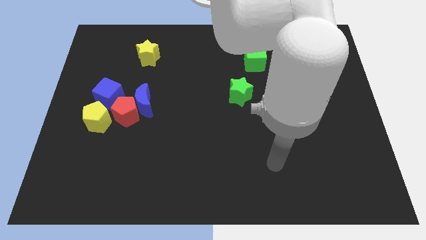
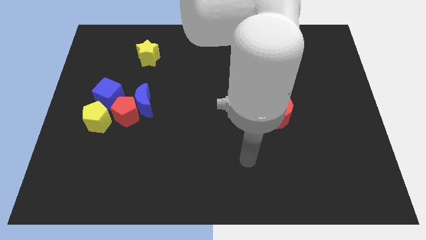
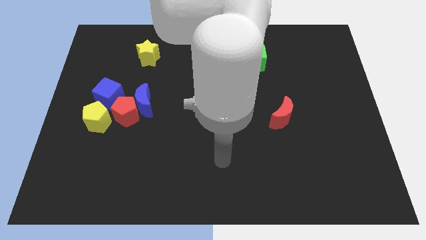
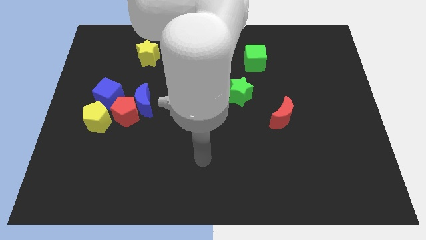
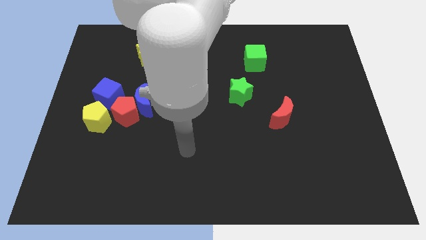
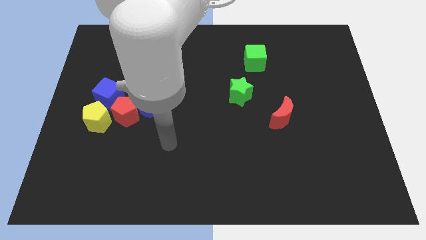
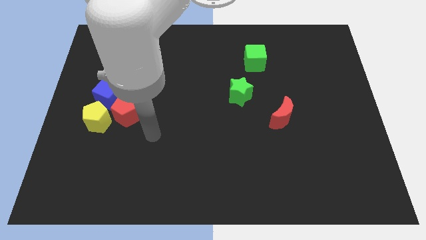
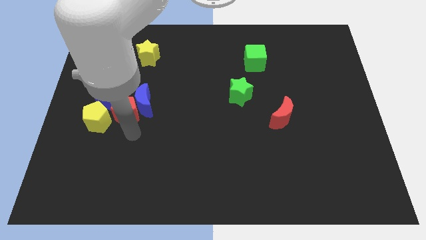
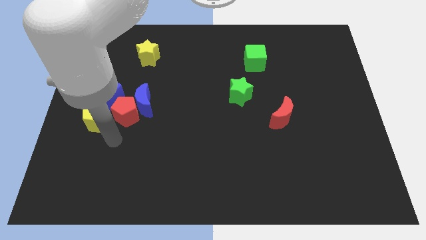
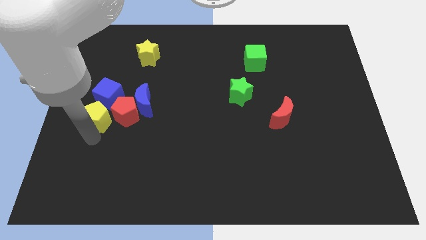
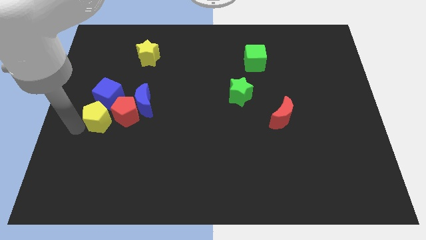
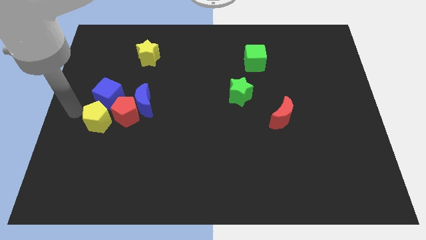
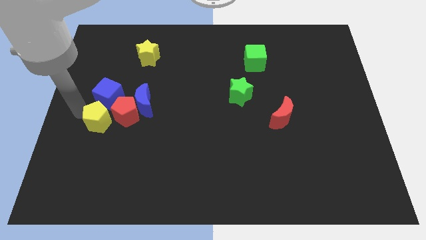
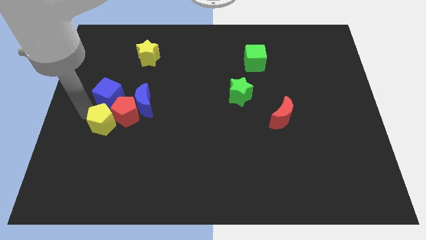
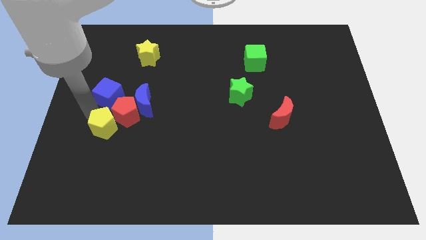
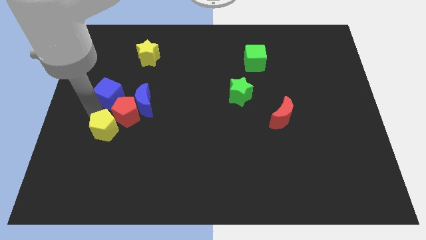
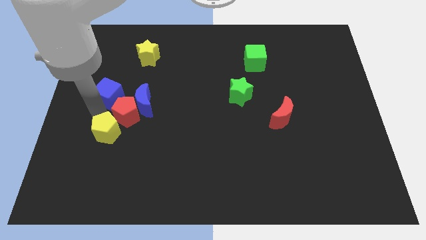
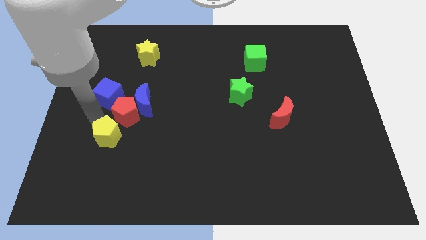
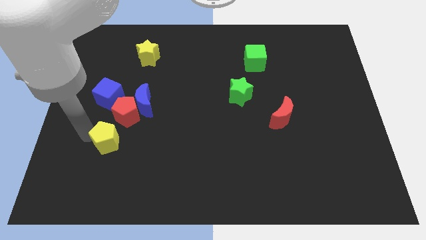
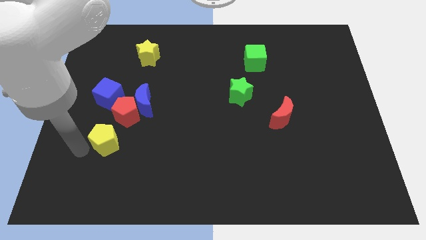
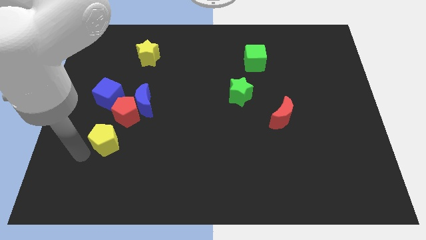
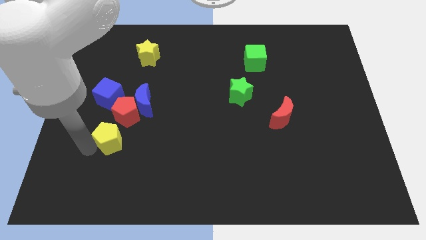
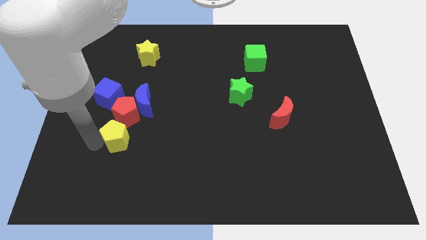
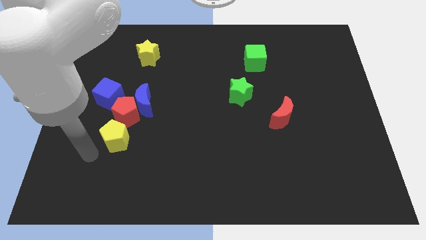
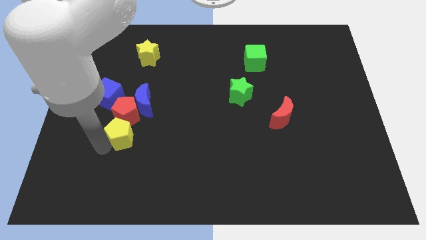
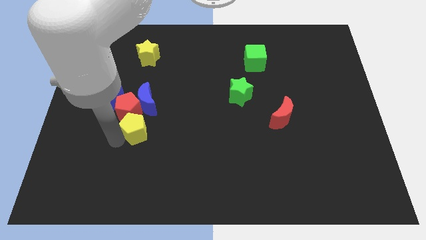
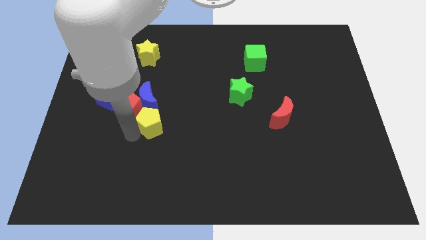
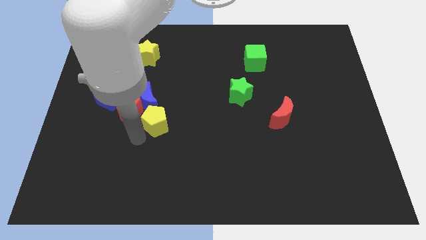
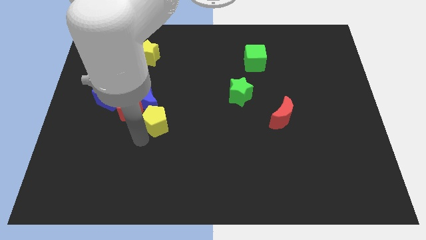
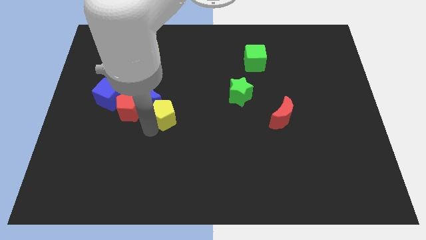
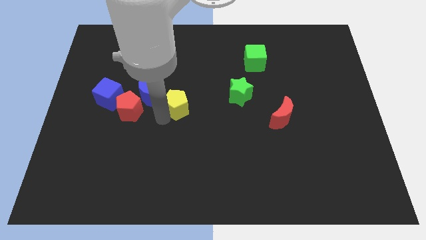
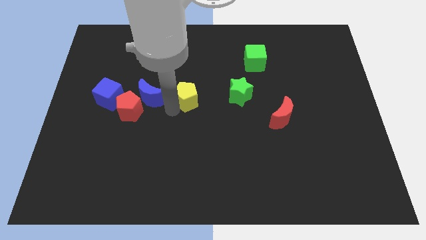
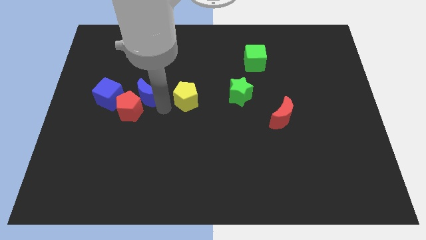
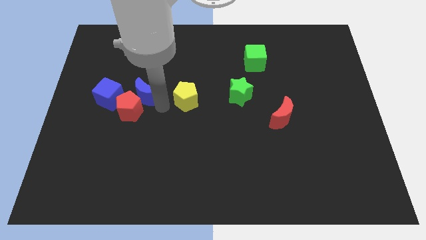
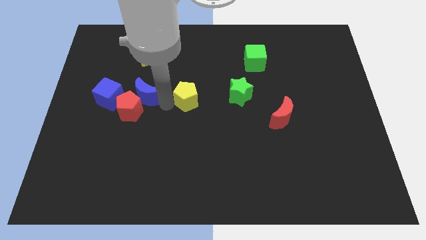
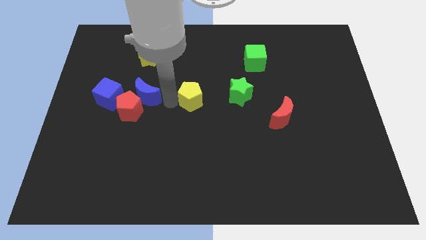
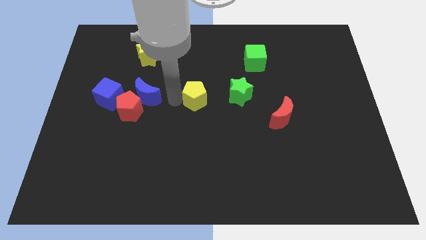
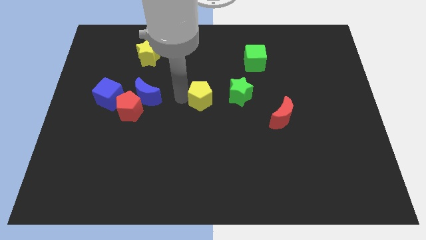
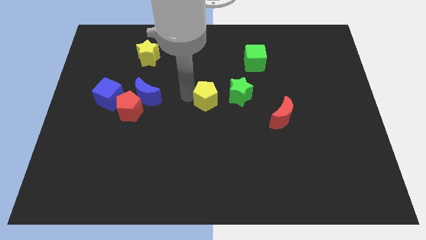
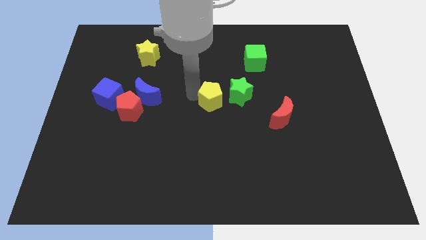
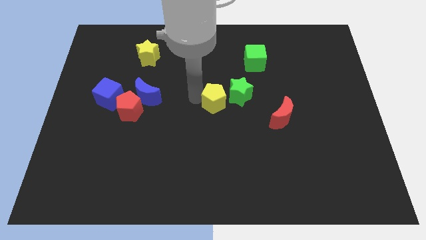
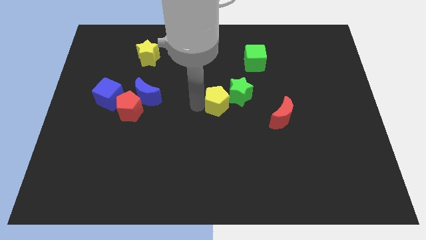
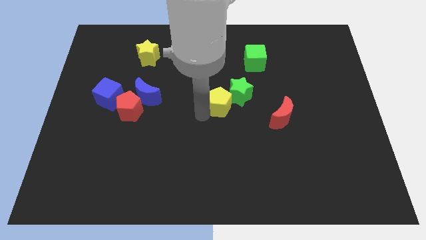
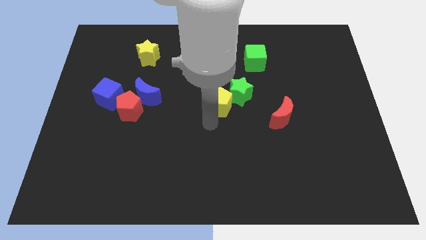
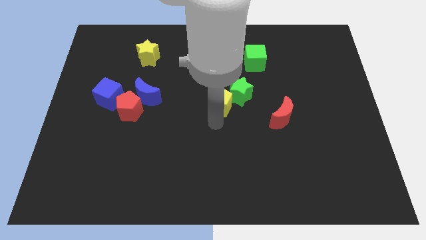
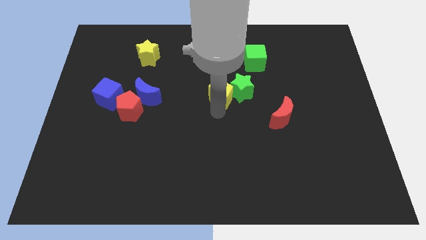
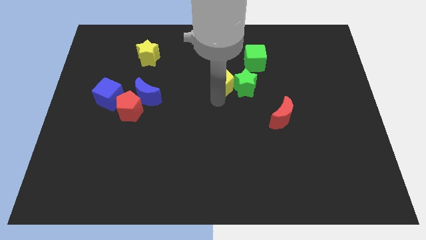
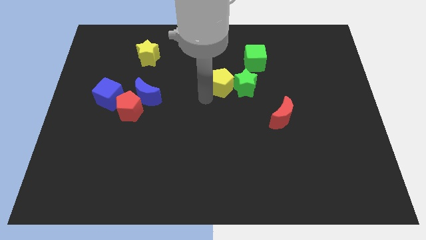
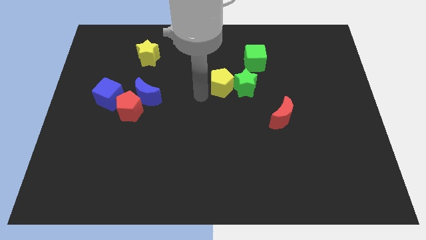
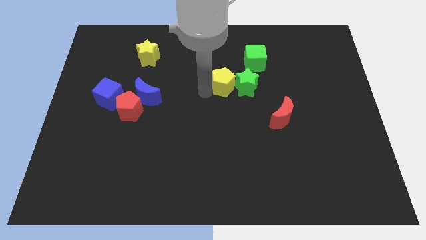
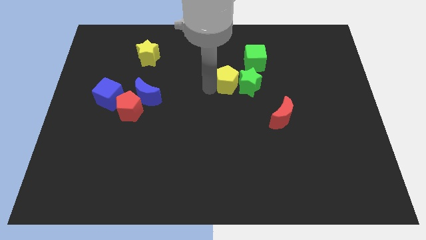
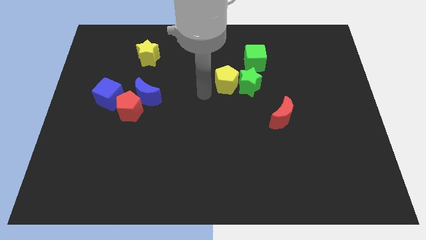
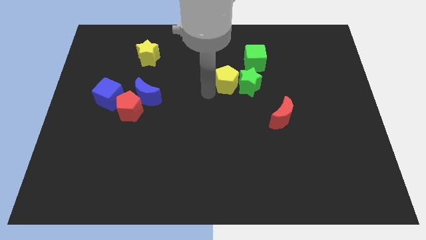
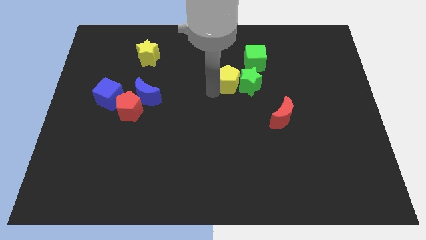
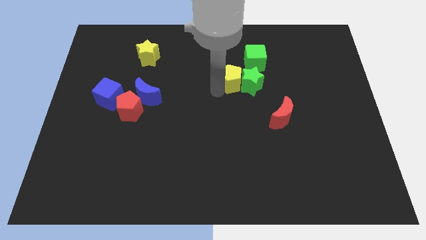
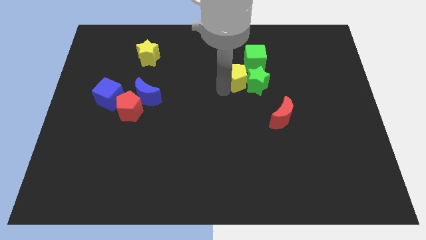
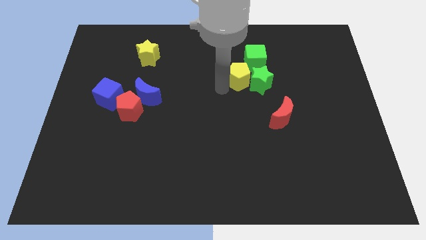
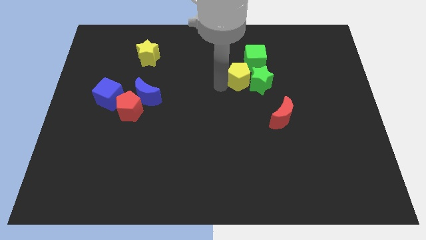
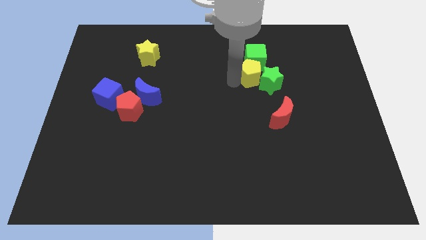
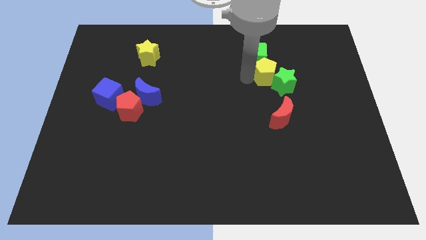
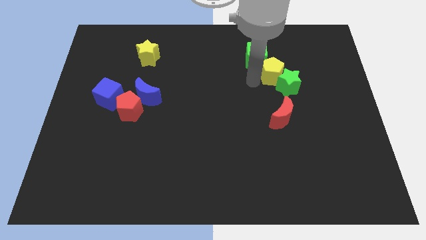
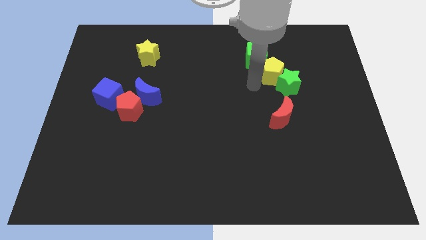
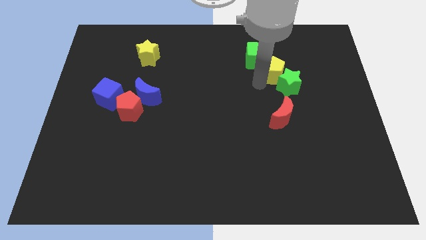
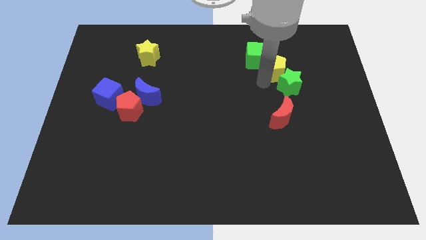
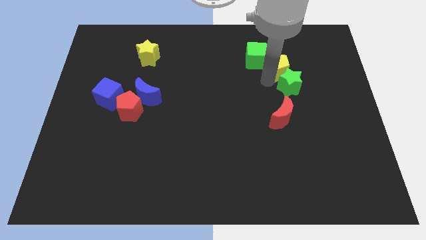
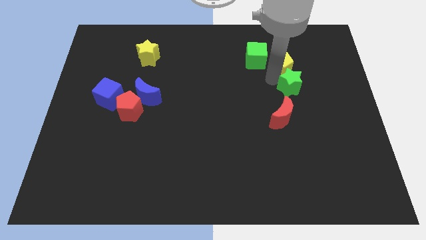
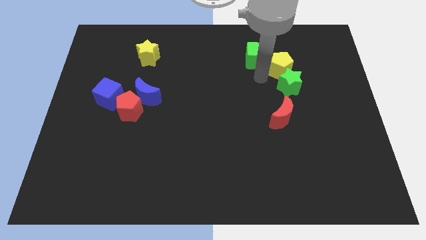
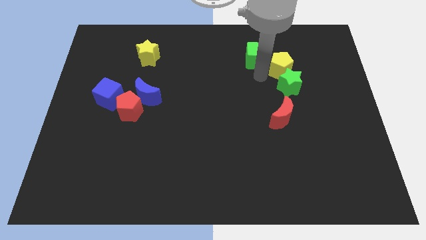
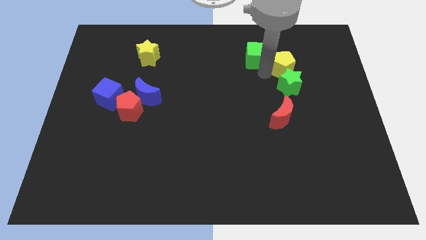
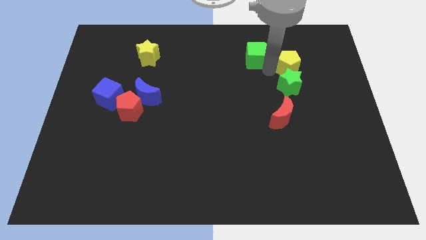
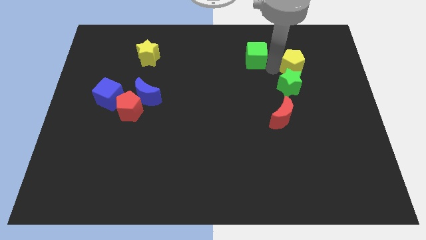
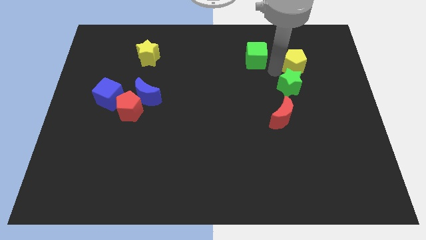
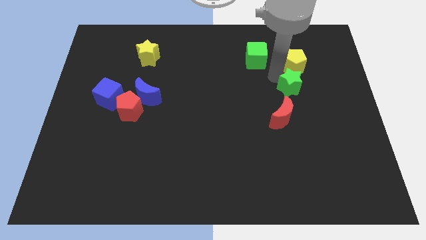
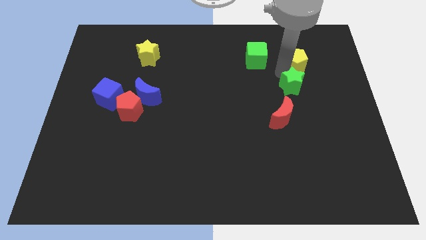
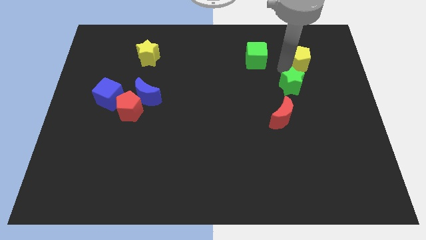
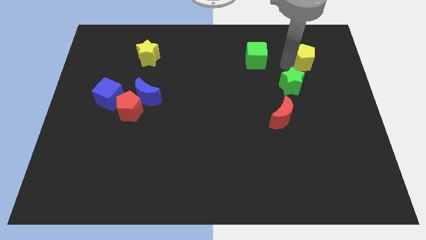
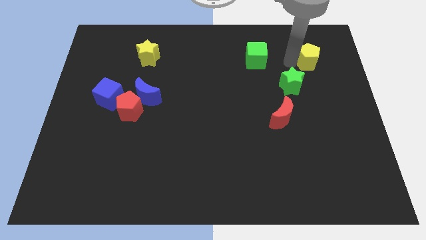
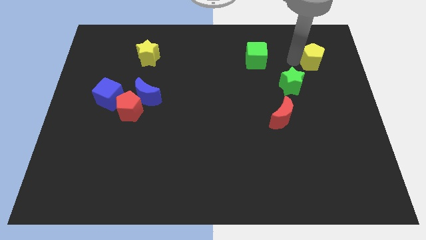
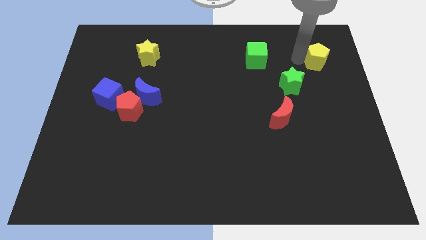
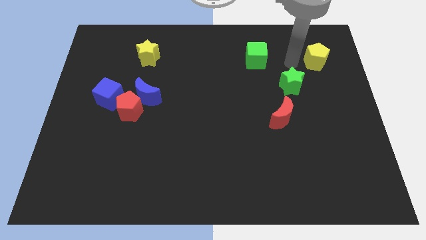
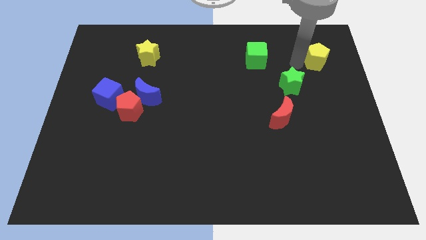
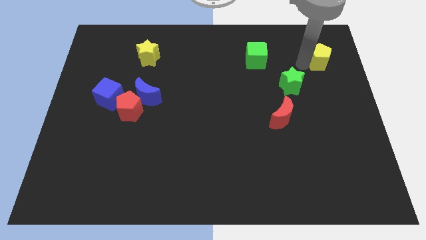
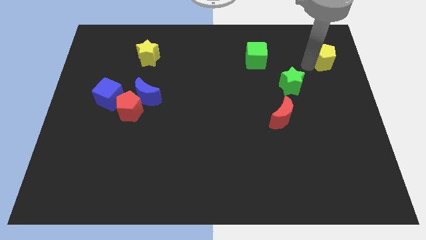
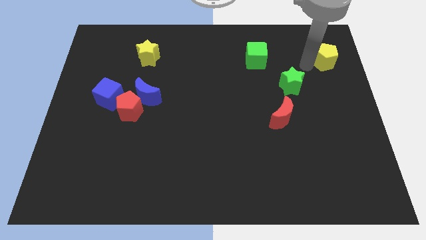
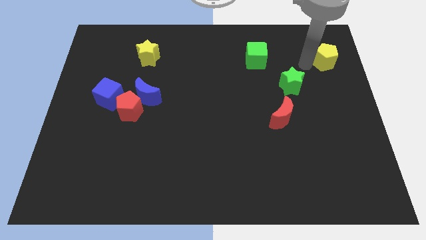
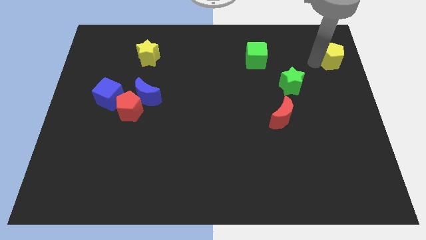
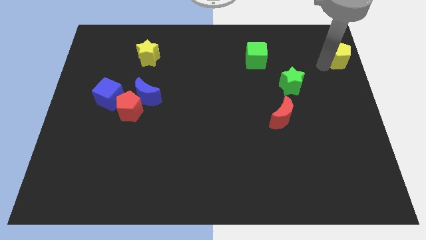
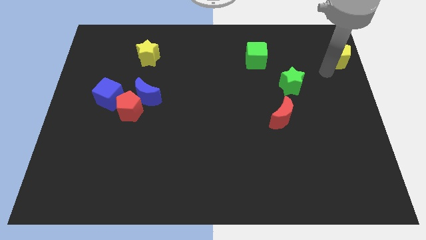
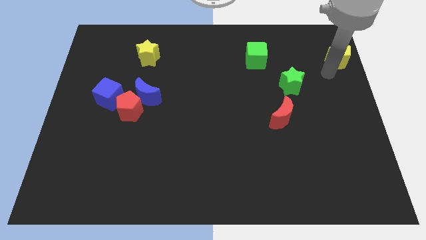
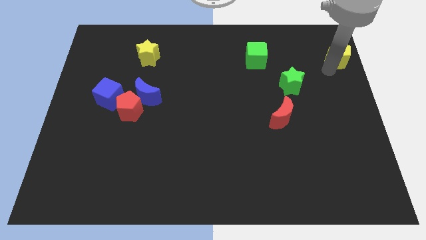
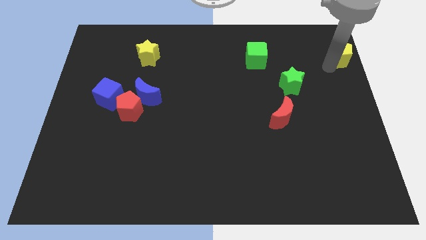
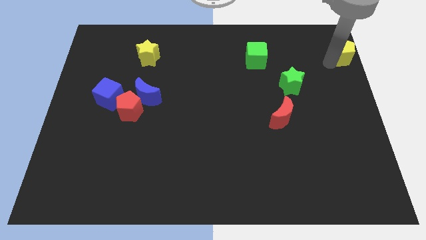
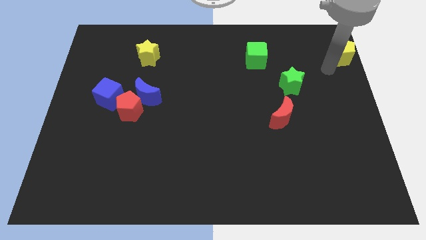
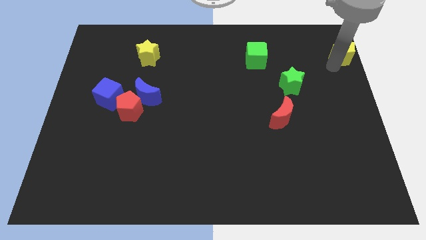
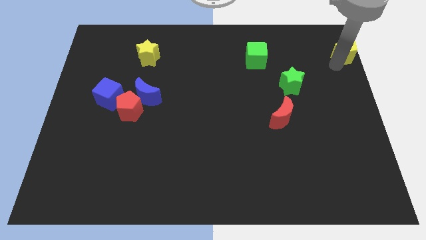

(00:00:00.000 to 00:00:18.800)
slide the yellow pentagon to the upper right corner
